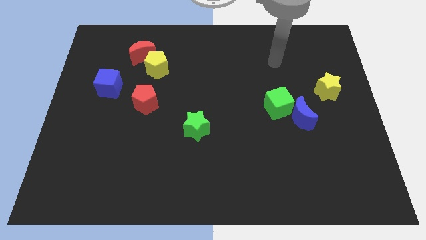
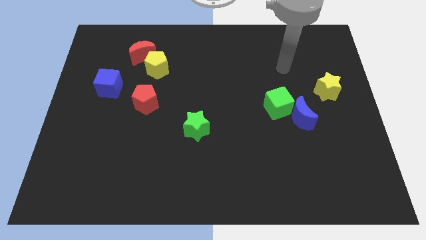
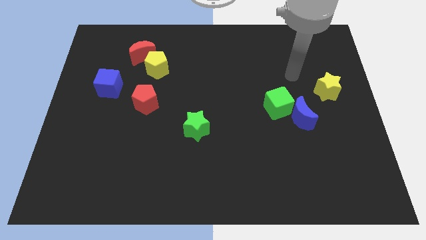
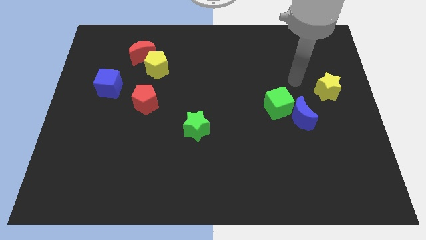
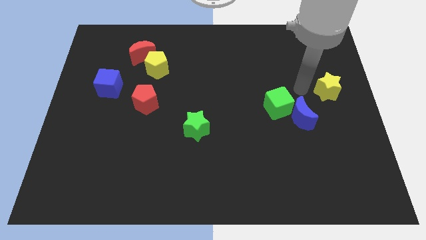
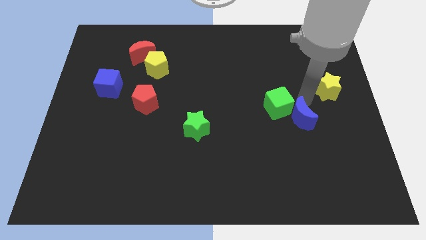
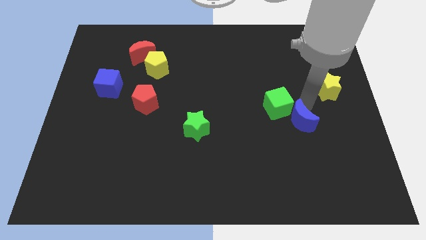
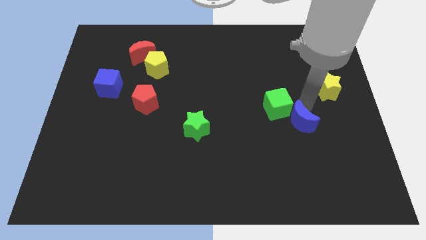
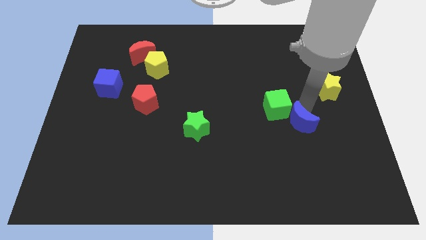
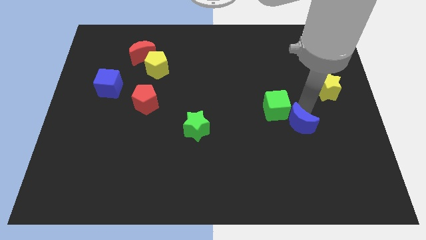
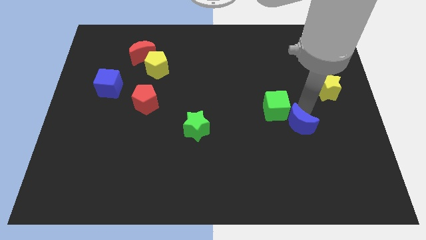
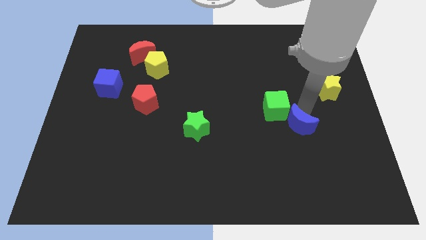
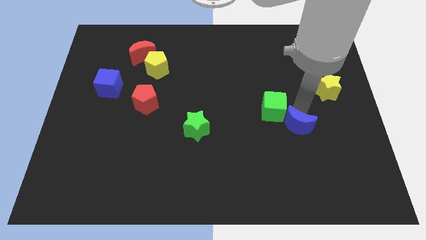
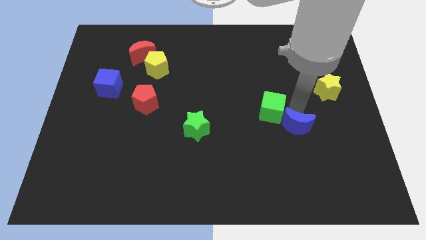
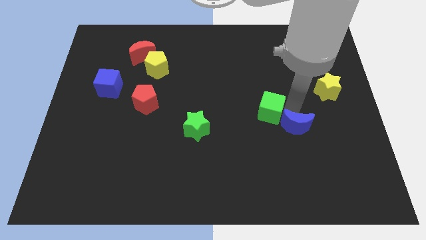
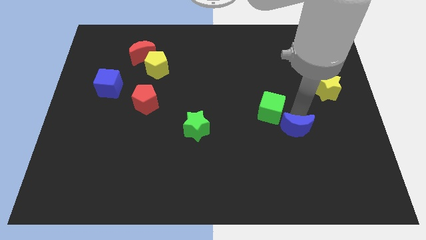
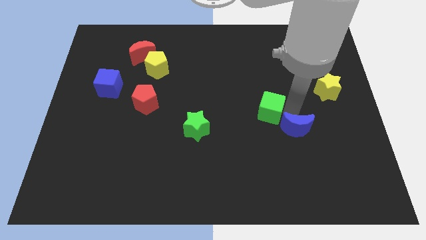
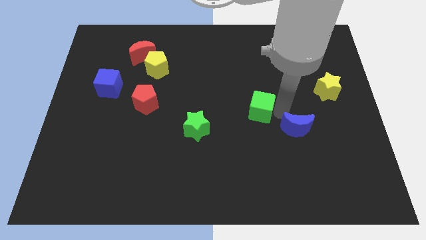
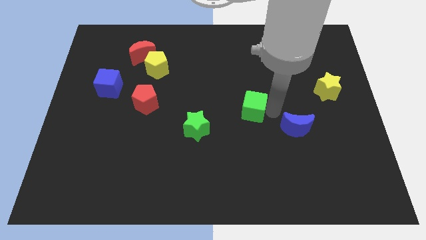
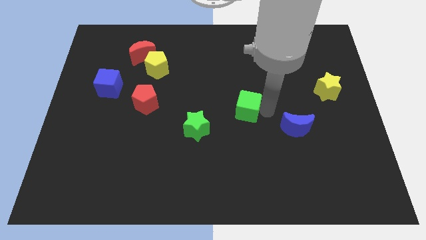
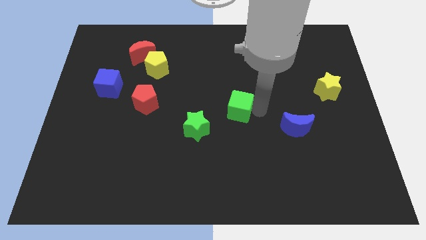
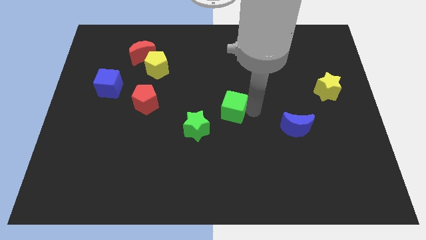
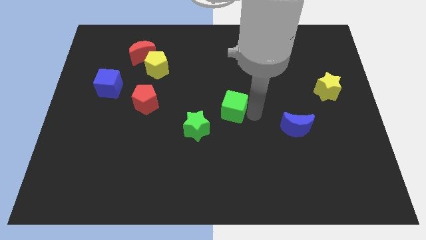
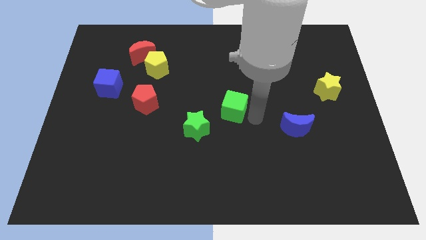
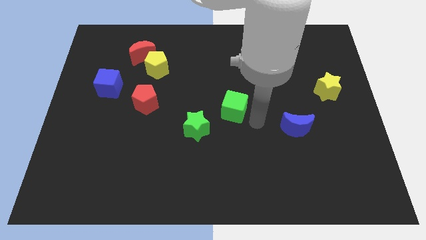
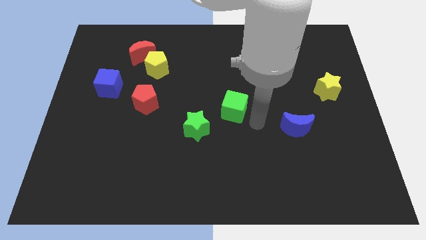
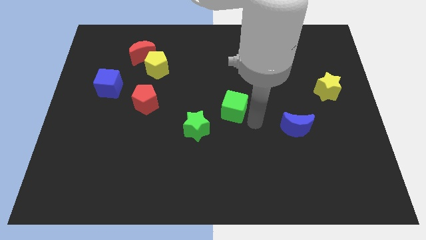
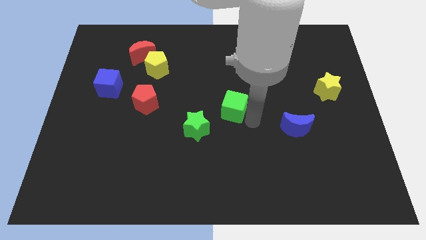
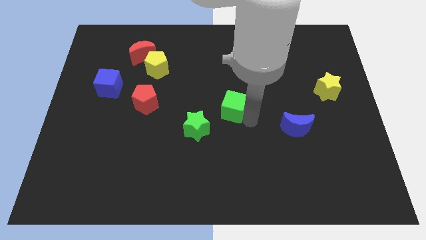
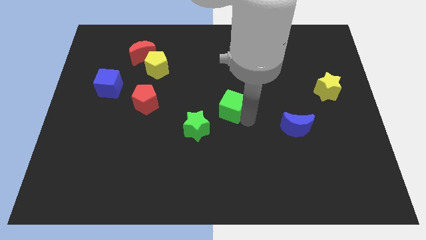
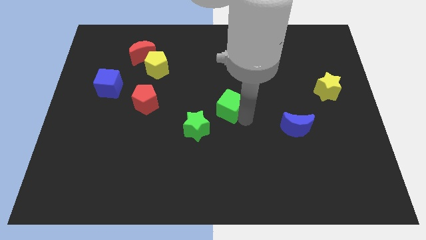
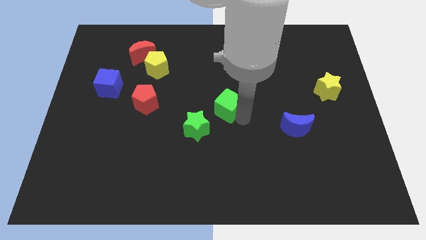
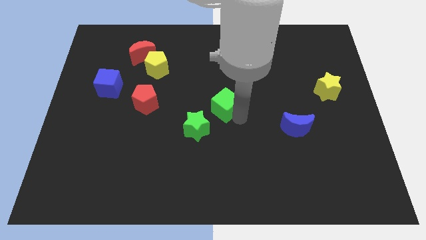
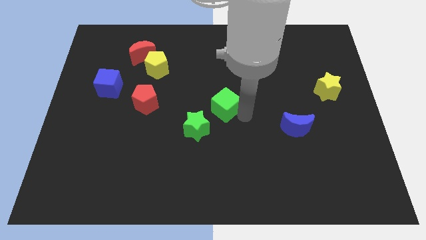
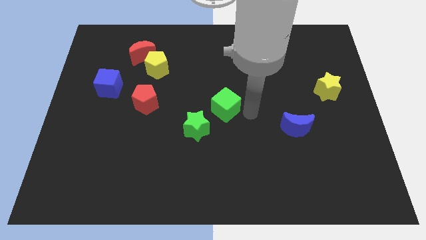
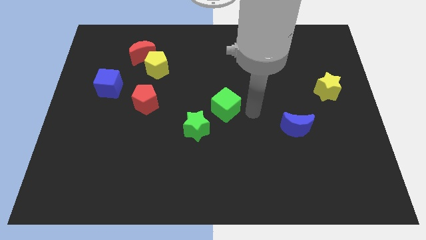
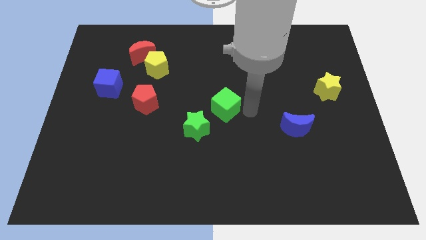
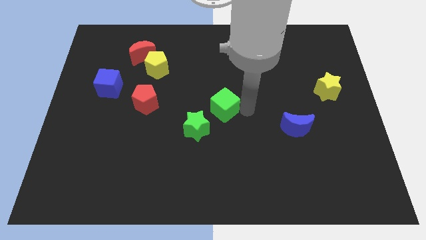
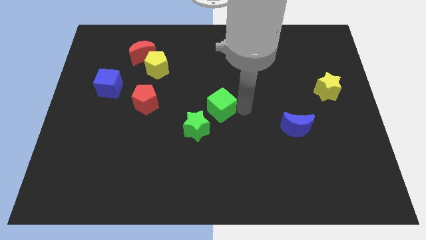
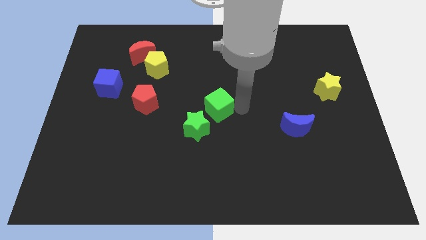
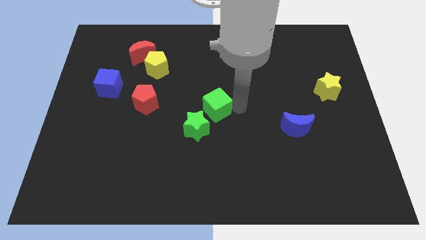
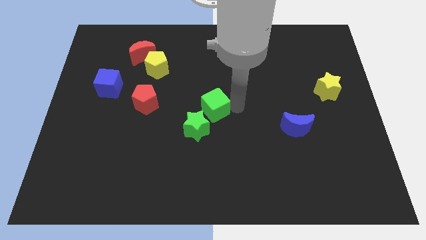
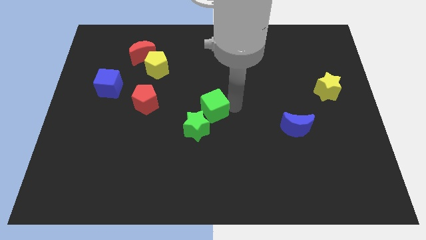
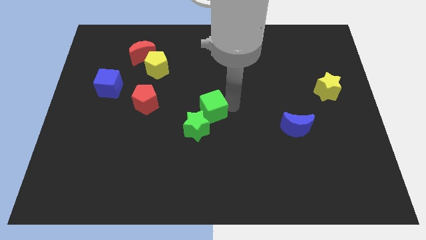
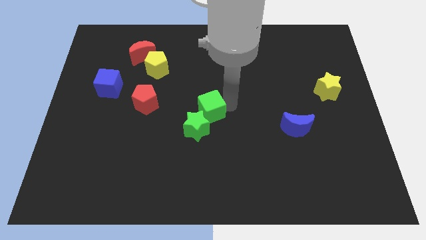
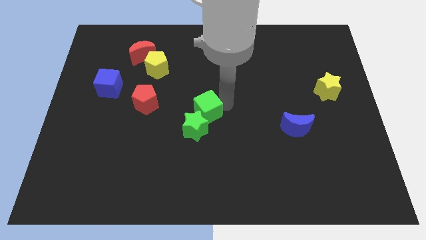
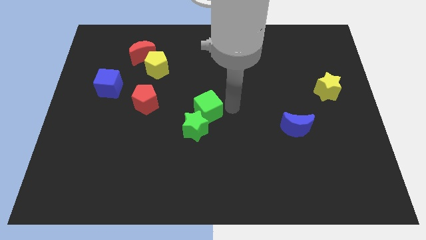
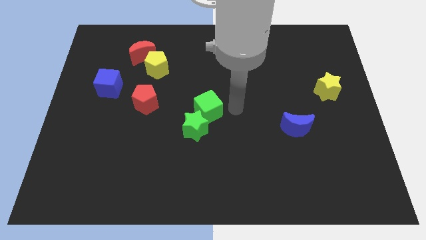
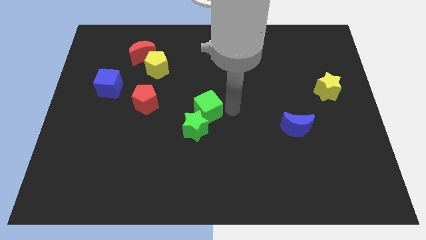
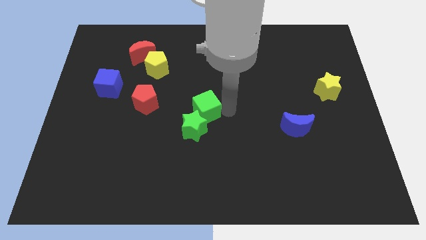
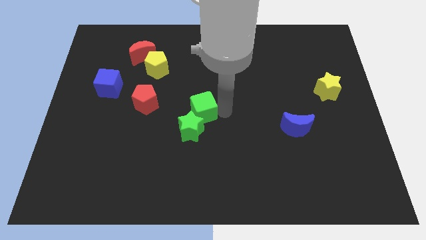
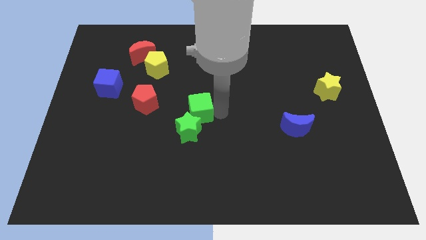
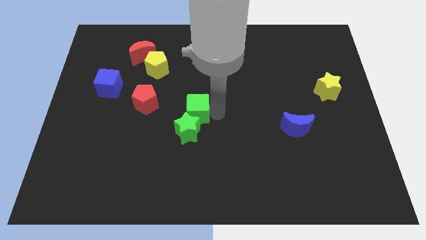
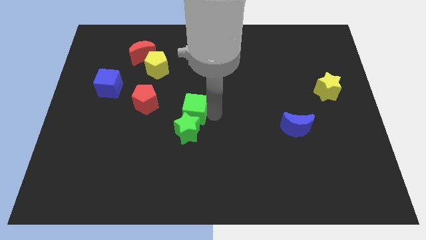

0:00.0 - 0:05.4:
push the green cube to the top left side of the green star

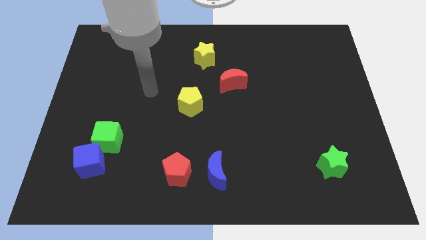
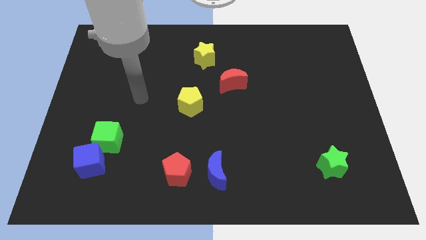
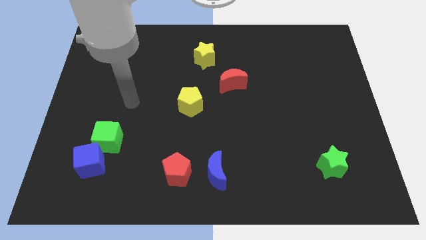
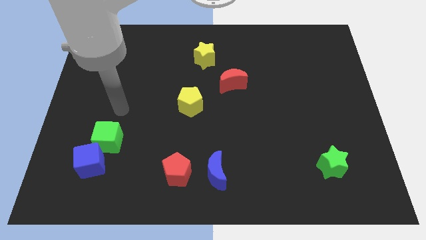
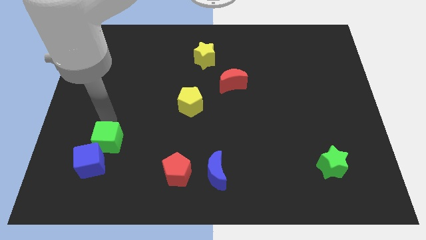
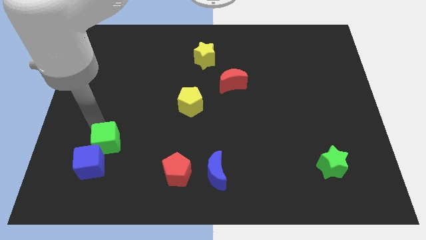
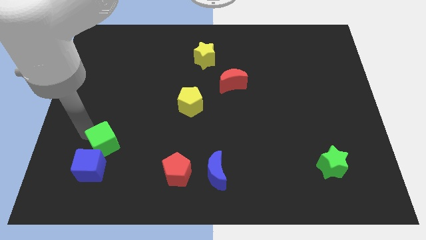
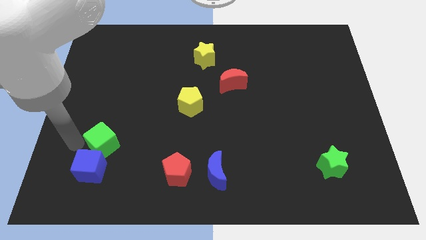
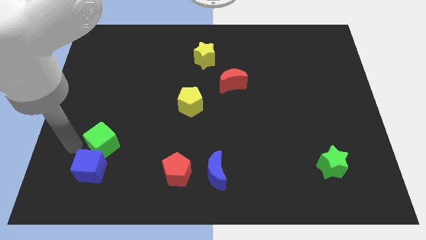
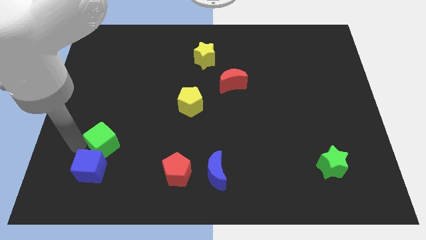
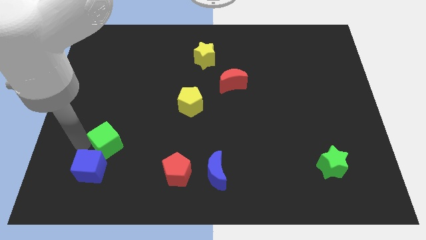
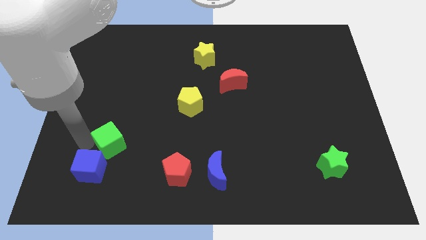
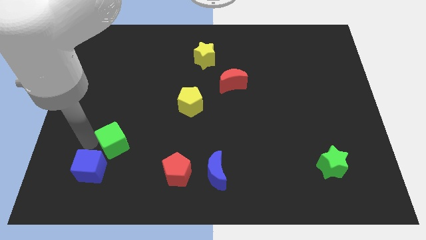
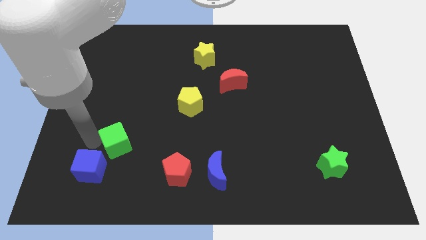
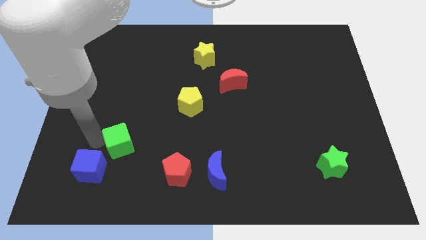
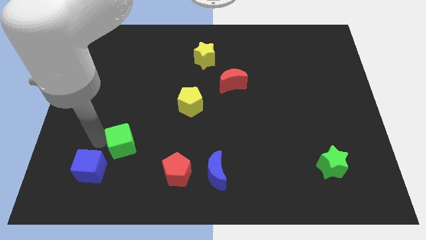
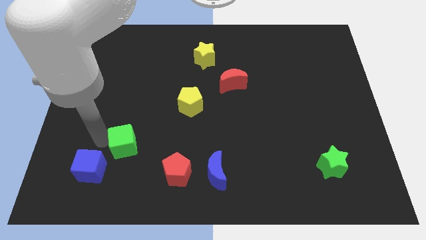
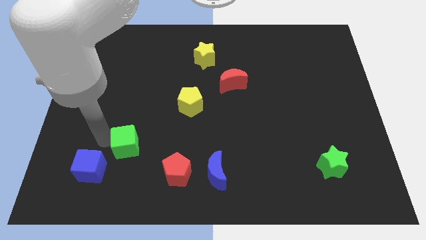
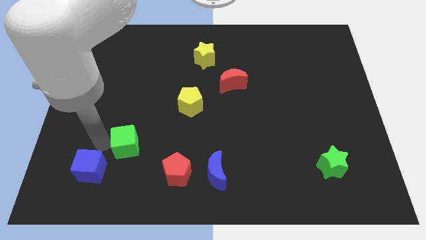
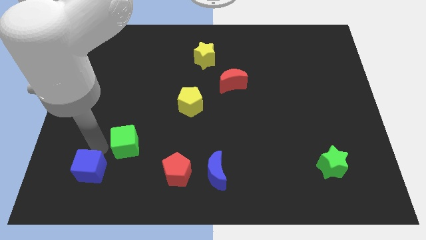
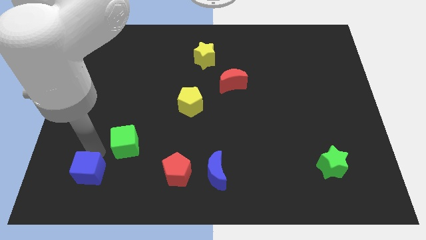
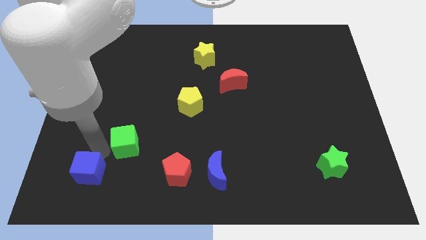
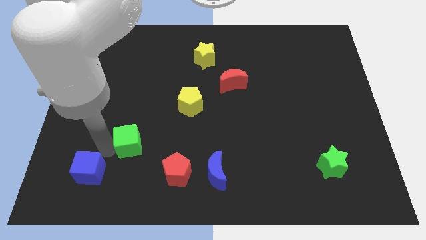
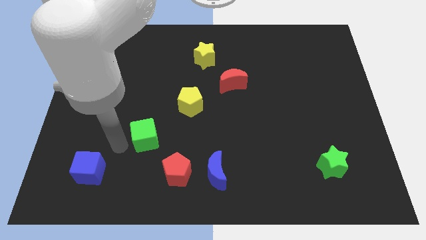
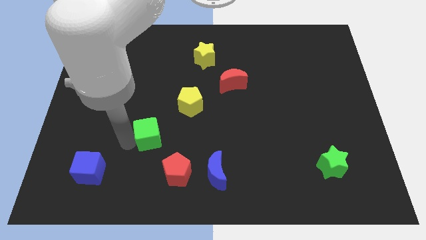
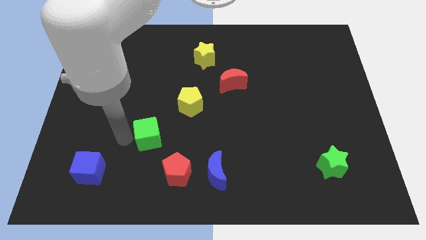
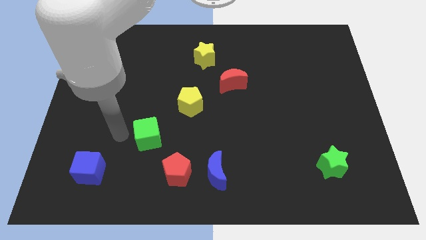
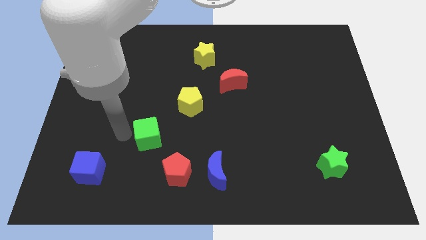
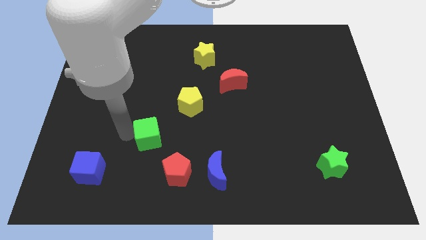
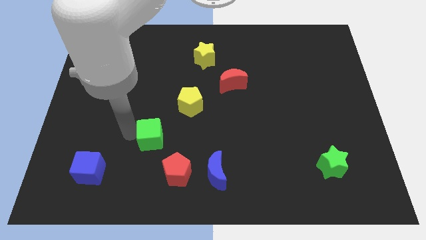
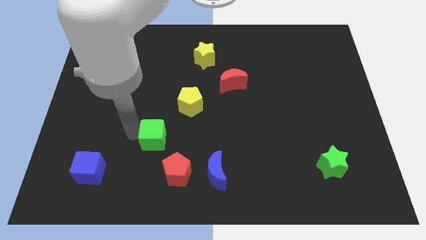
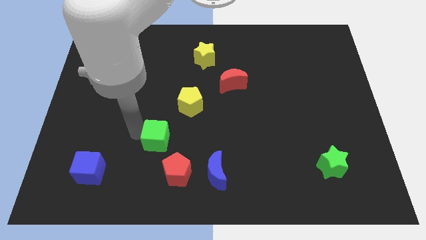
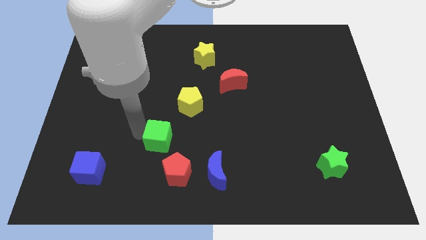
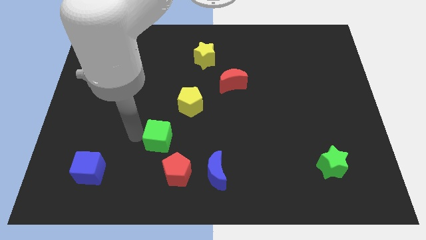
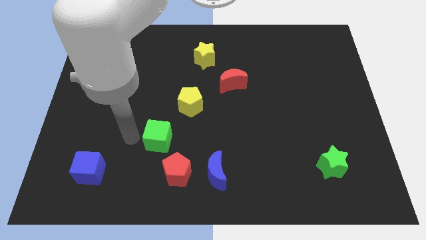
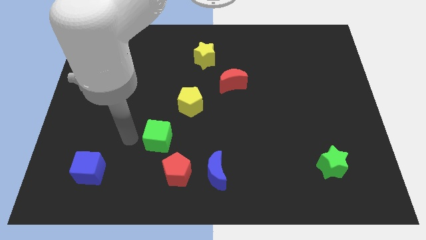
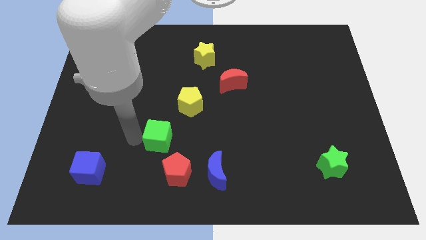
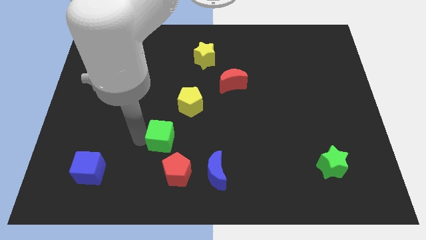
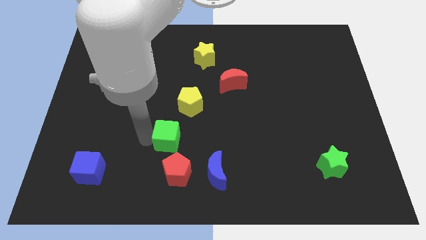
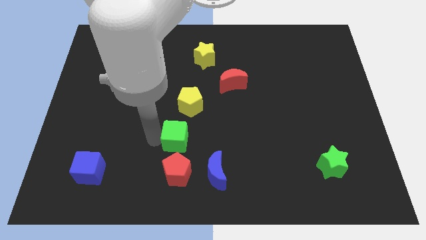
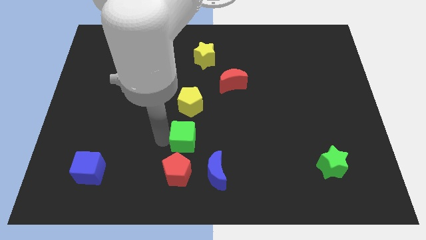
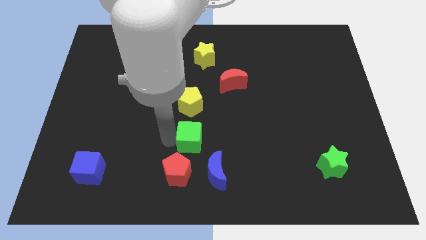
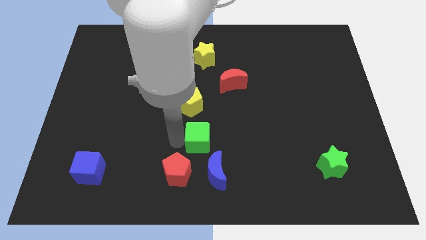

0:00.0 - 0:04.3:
slide the green cube to the top side of the blue moon
